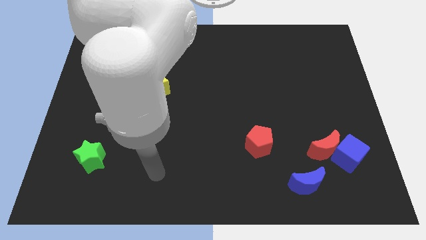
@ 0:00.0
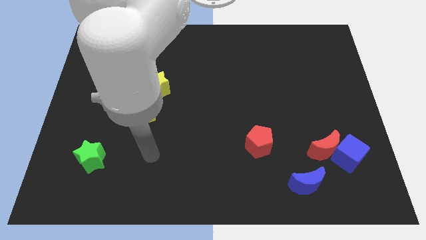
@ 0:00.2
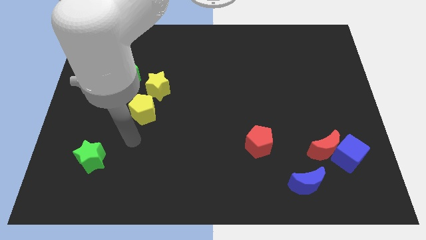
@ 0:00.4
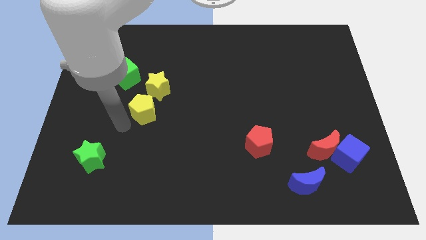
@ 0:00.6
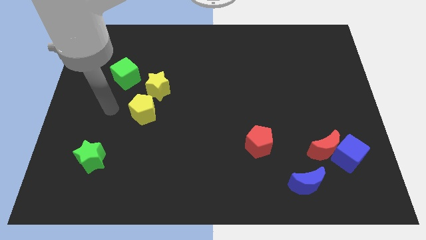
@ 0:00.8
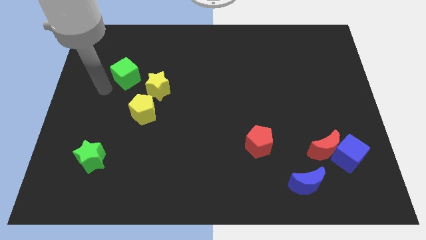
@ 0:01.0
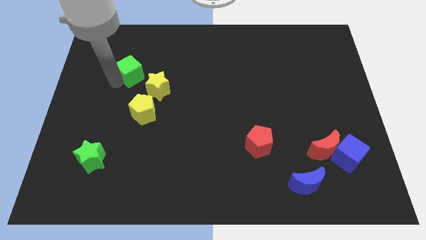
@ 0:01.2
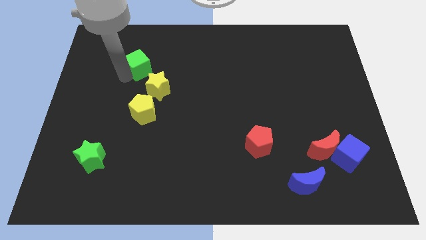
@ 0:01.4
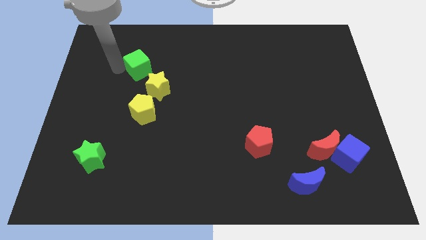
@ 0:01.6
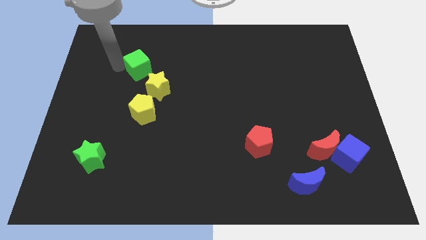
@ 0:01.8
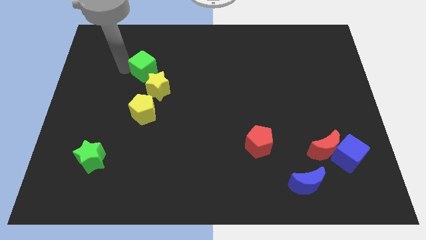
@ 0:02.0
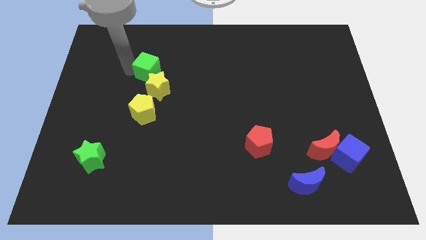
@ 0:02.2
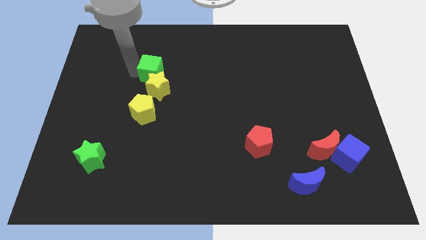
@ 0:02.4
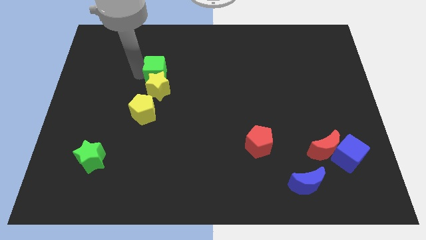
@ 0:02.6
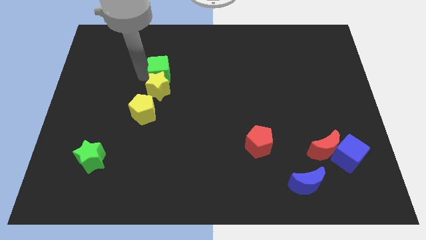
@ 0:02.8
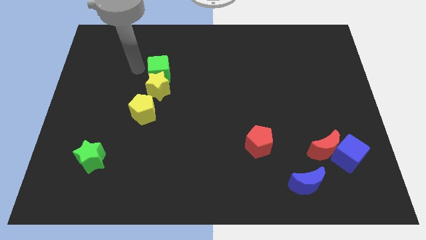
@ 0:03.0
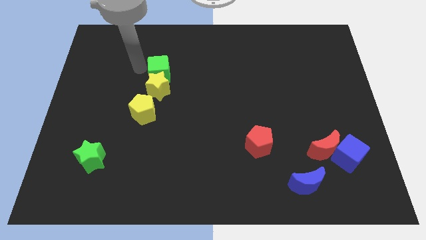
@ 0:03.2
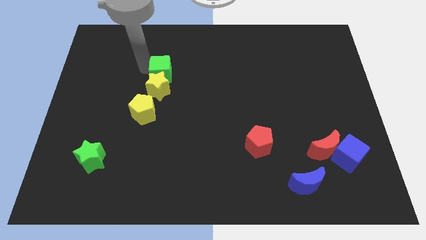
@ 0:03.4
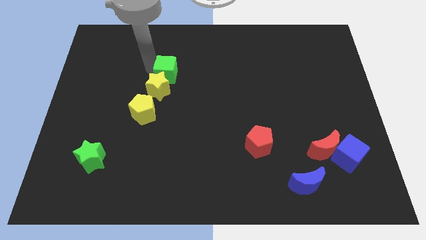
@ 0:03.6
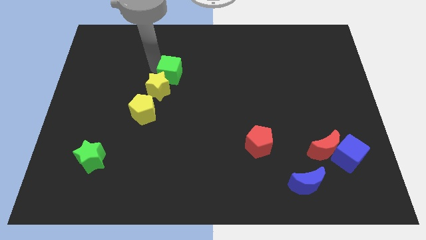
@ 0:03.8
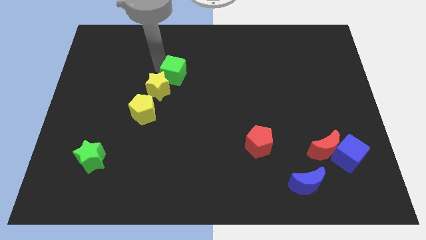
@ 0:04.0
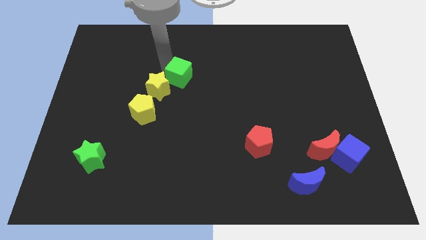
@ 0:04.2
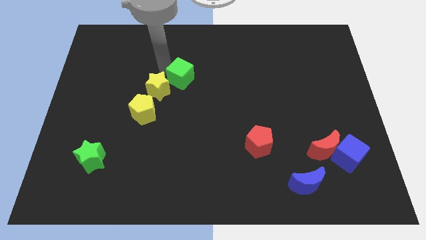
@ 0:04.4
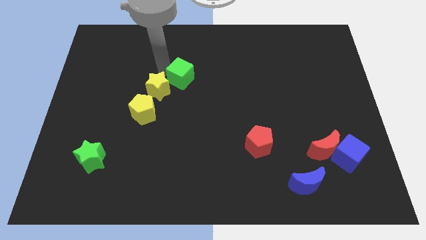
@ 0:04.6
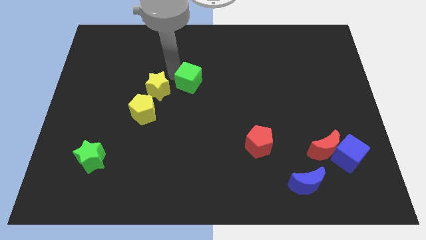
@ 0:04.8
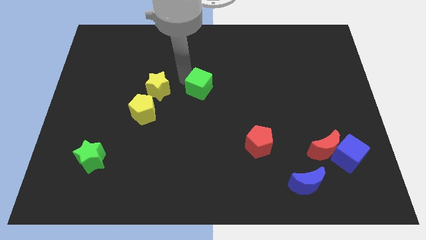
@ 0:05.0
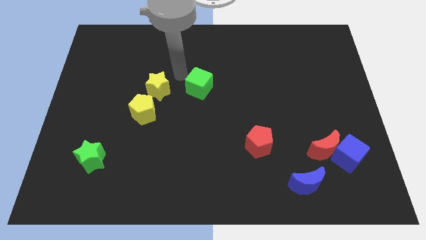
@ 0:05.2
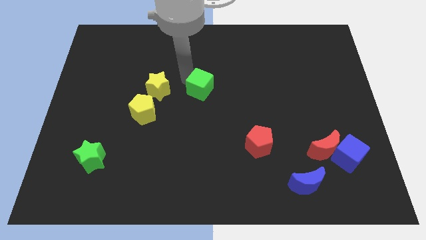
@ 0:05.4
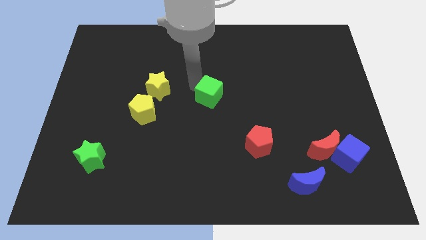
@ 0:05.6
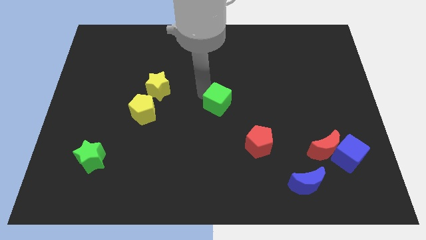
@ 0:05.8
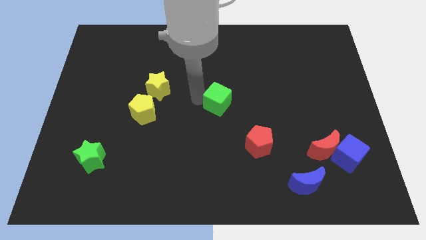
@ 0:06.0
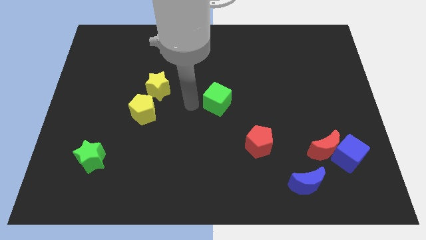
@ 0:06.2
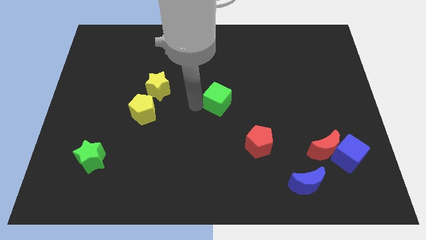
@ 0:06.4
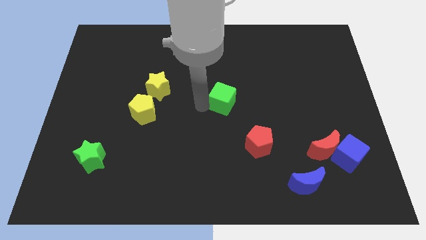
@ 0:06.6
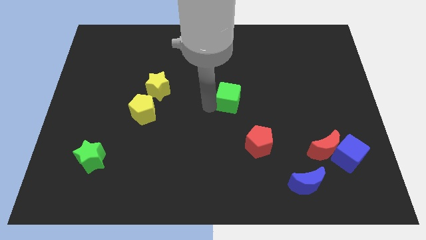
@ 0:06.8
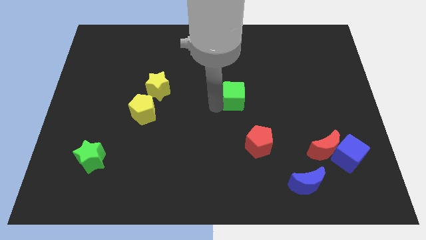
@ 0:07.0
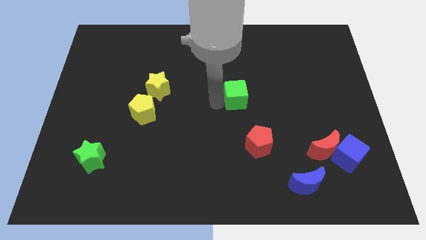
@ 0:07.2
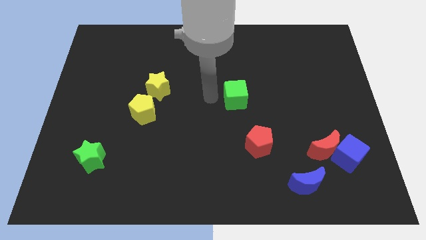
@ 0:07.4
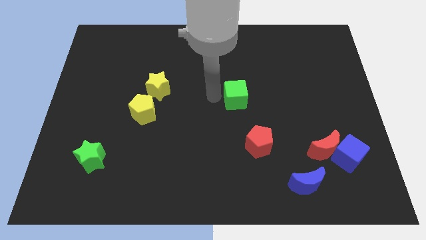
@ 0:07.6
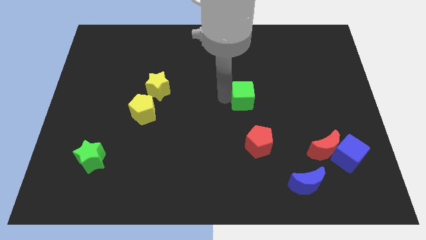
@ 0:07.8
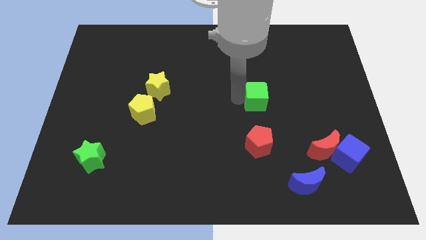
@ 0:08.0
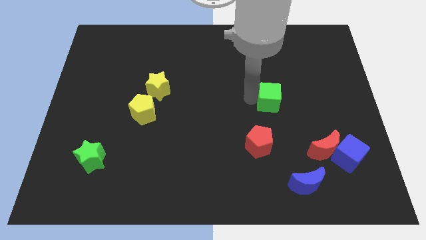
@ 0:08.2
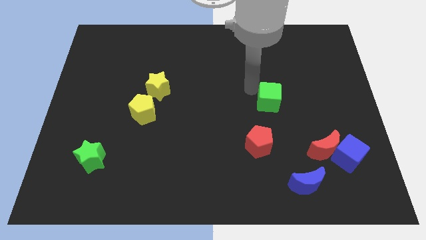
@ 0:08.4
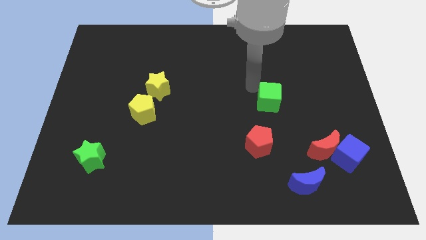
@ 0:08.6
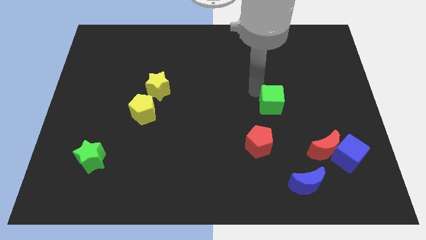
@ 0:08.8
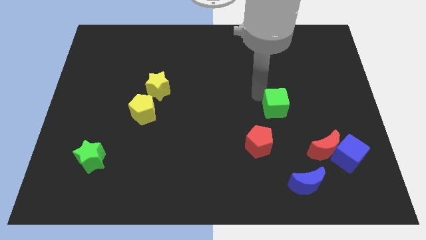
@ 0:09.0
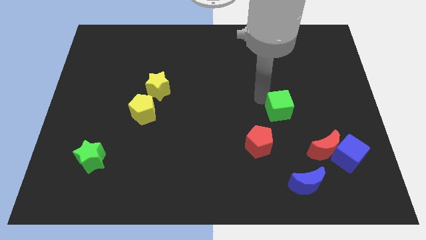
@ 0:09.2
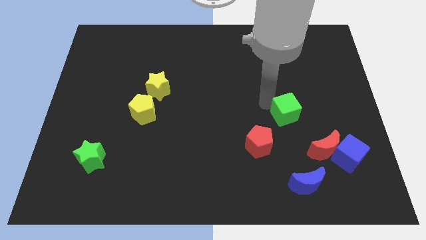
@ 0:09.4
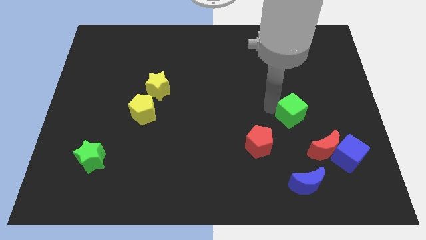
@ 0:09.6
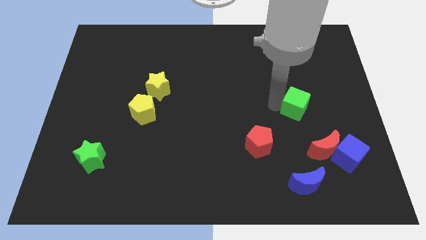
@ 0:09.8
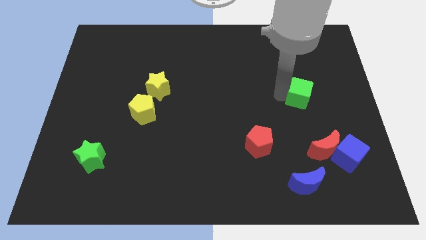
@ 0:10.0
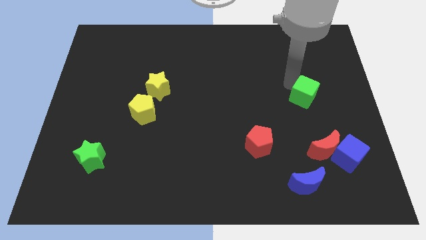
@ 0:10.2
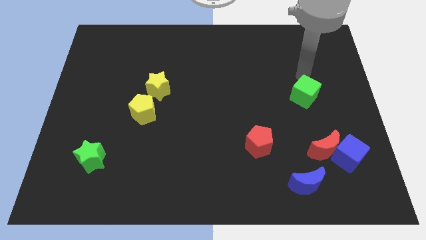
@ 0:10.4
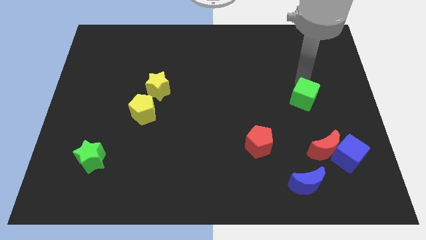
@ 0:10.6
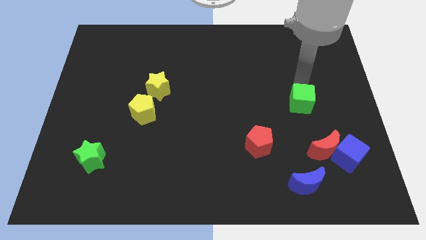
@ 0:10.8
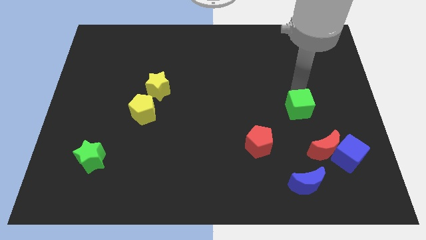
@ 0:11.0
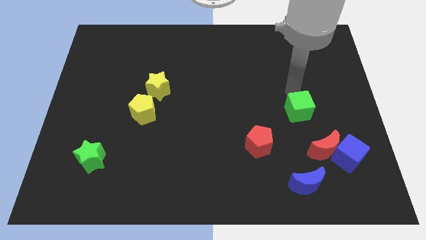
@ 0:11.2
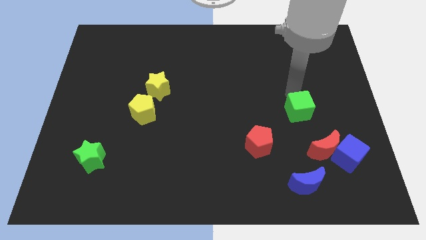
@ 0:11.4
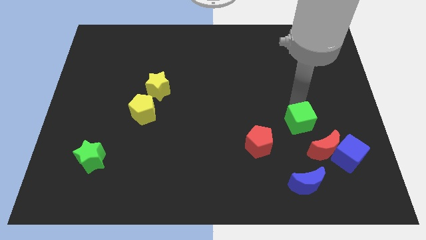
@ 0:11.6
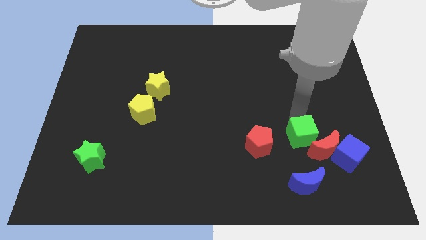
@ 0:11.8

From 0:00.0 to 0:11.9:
put the green cube to the red moon

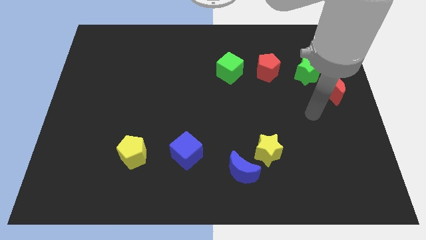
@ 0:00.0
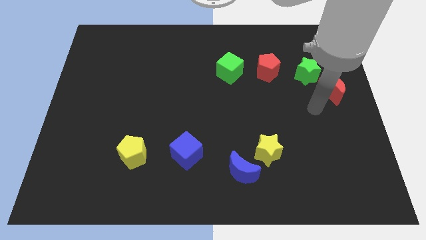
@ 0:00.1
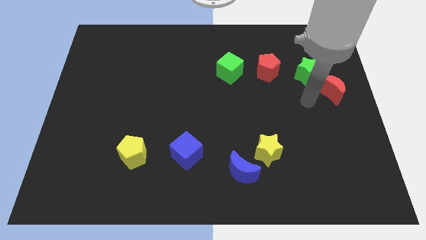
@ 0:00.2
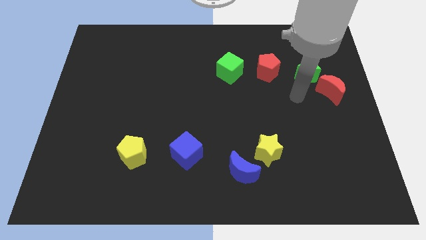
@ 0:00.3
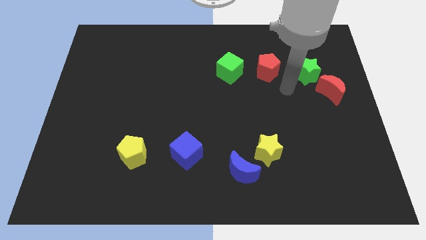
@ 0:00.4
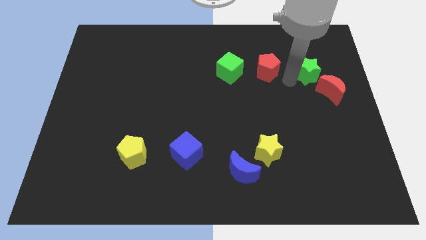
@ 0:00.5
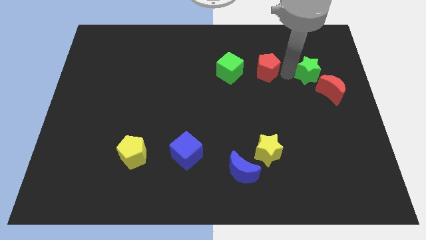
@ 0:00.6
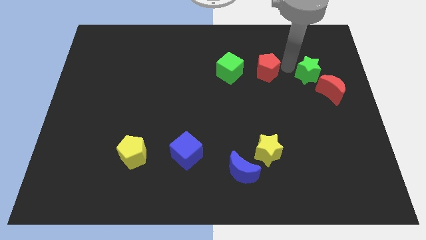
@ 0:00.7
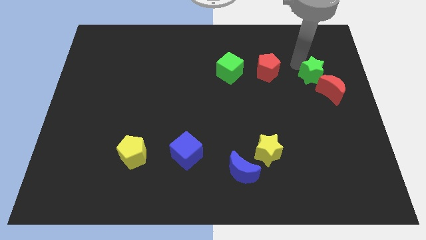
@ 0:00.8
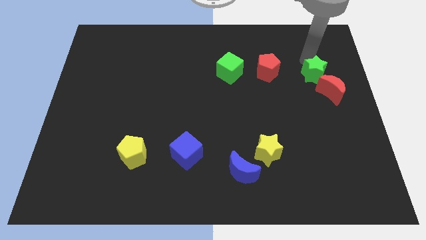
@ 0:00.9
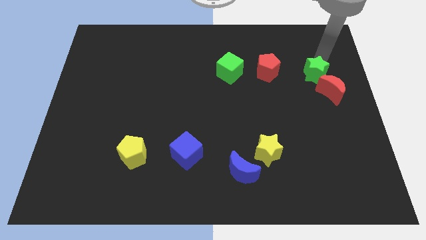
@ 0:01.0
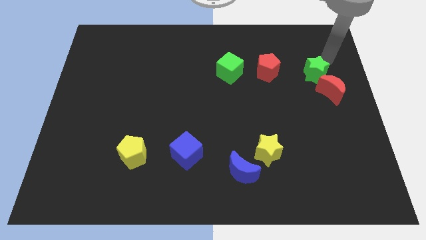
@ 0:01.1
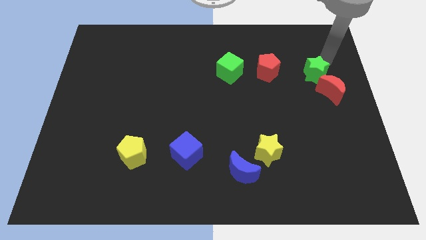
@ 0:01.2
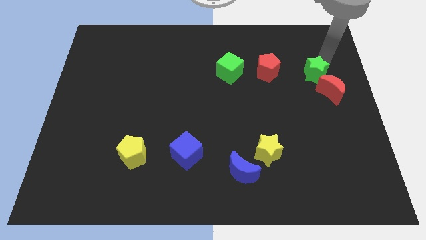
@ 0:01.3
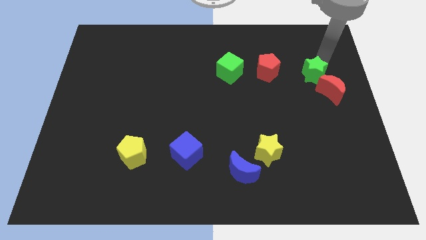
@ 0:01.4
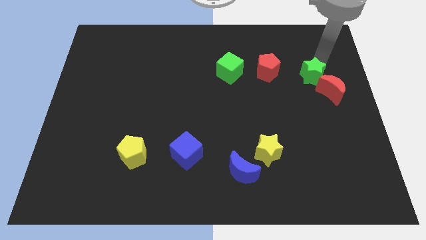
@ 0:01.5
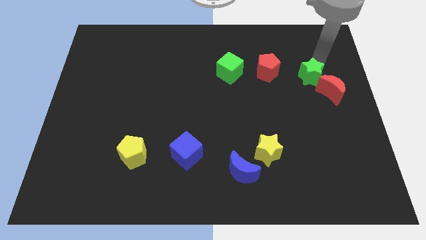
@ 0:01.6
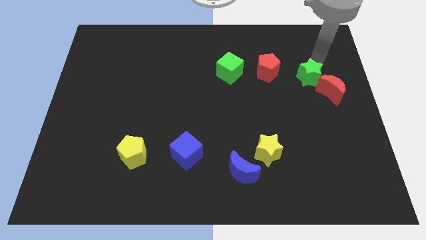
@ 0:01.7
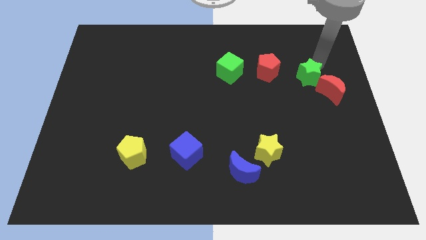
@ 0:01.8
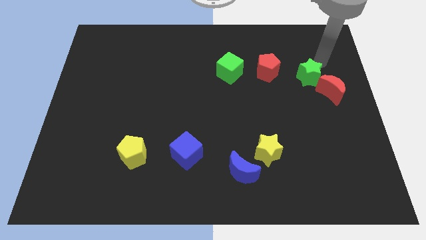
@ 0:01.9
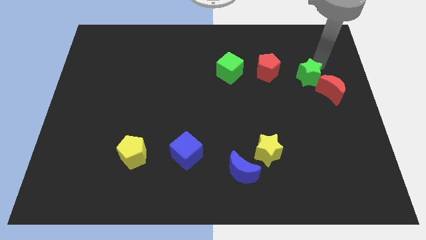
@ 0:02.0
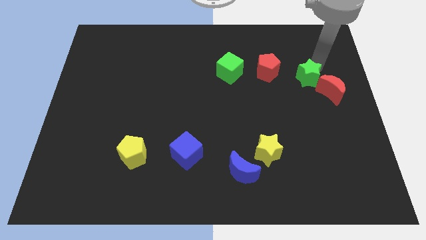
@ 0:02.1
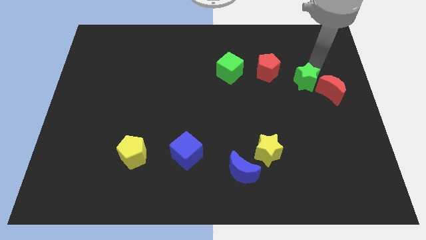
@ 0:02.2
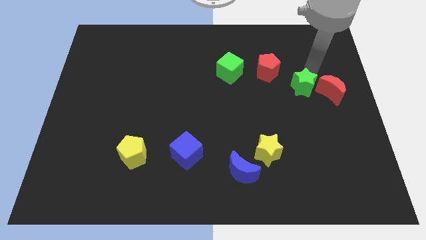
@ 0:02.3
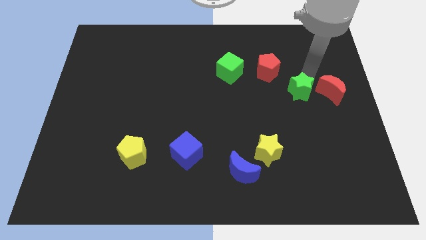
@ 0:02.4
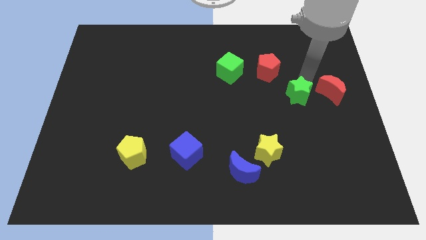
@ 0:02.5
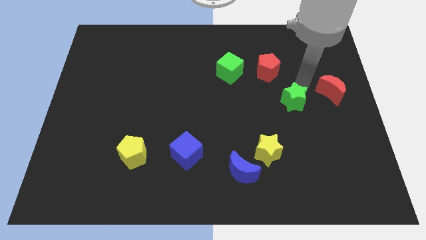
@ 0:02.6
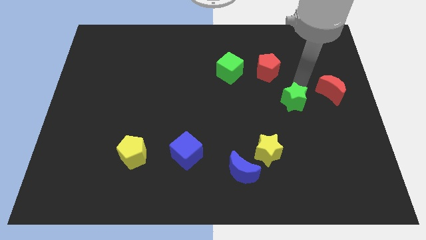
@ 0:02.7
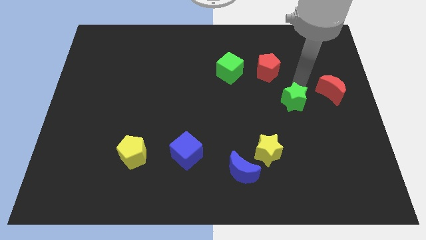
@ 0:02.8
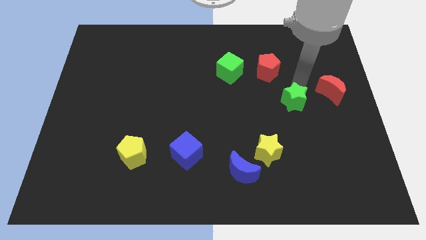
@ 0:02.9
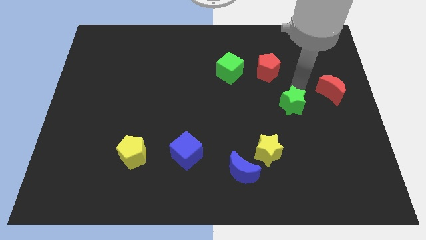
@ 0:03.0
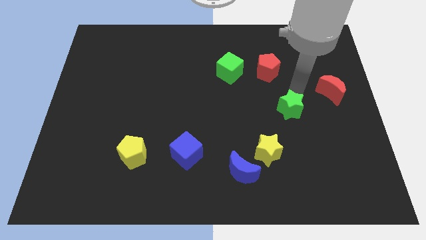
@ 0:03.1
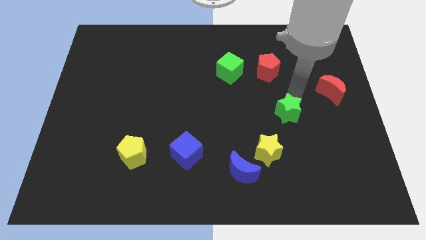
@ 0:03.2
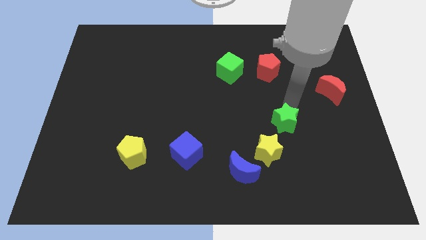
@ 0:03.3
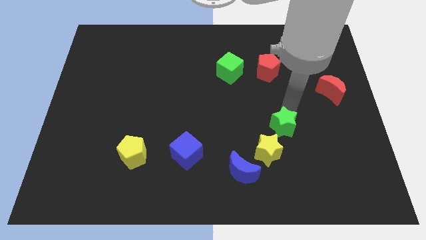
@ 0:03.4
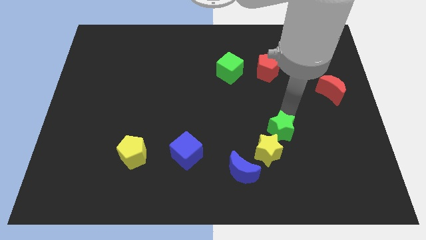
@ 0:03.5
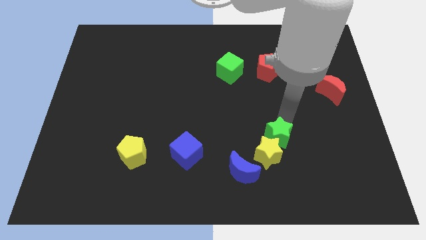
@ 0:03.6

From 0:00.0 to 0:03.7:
move the green star next to the yellow star
